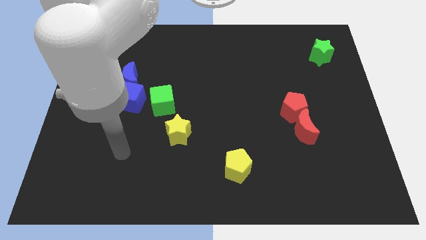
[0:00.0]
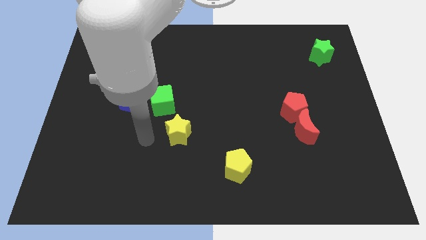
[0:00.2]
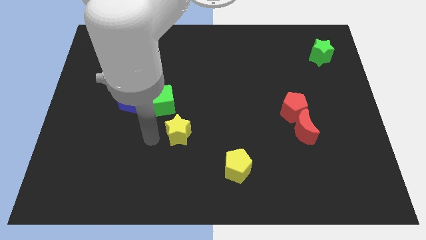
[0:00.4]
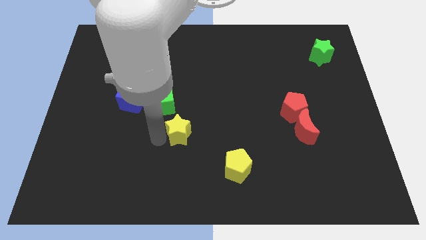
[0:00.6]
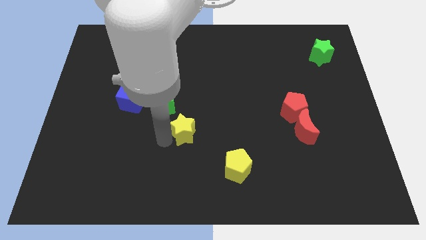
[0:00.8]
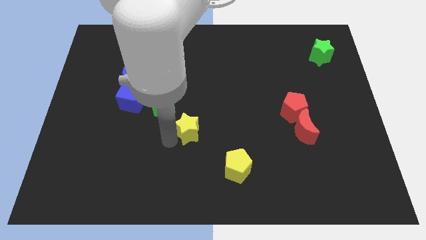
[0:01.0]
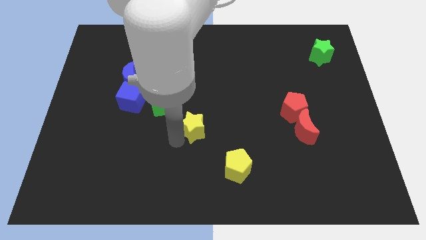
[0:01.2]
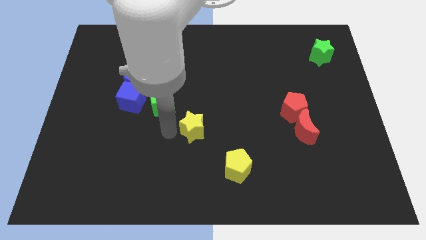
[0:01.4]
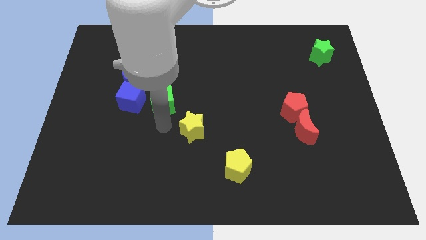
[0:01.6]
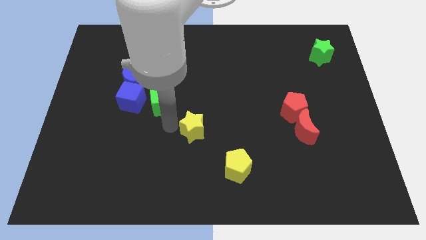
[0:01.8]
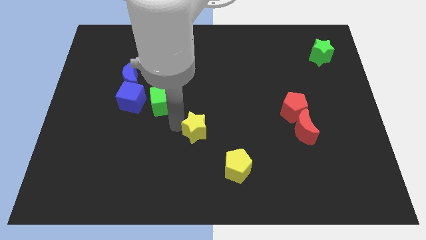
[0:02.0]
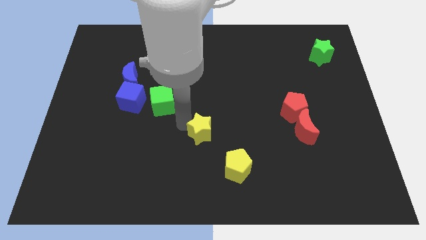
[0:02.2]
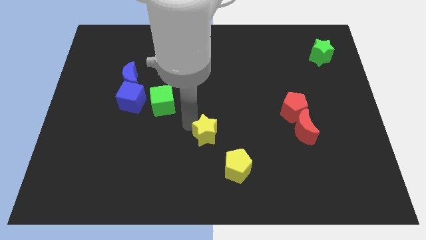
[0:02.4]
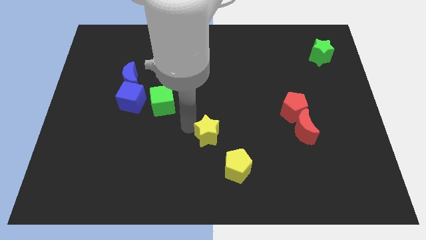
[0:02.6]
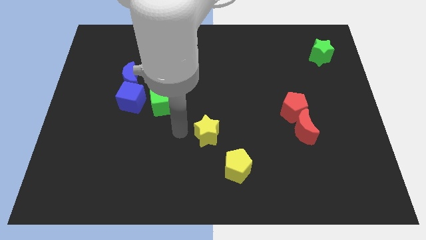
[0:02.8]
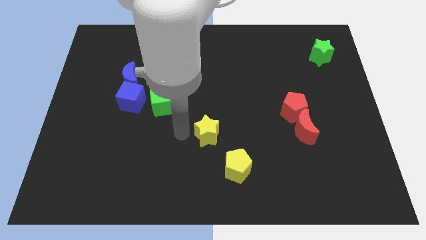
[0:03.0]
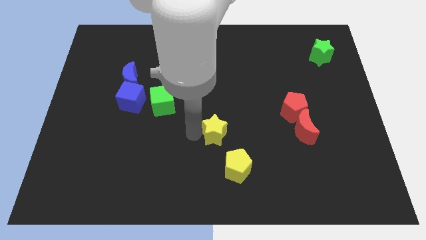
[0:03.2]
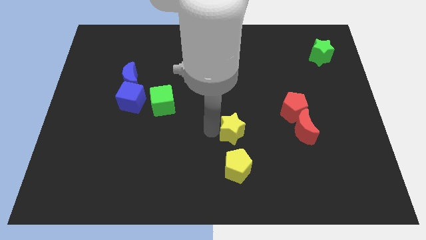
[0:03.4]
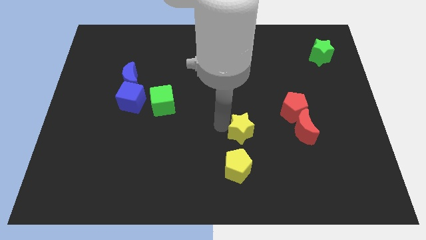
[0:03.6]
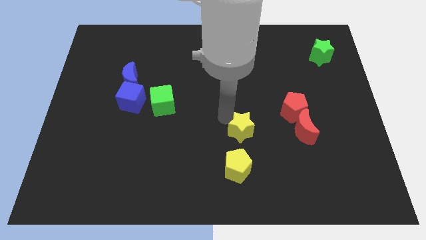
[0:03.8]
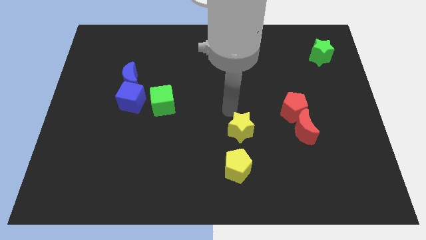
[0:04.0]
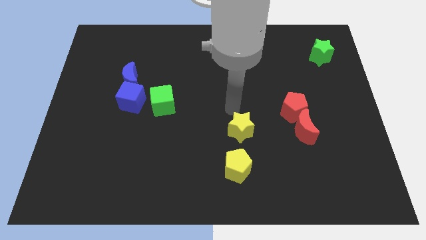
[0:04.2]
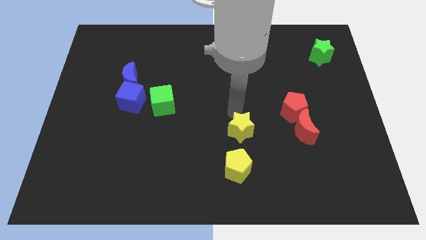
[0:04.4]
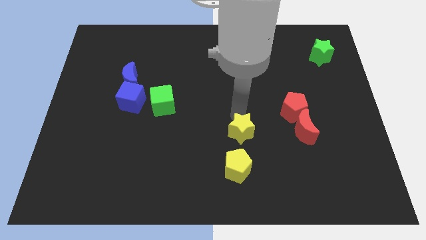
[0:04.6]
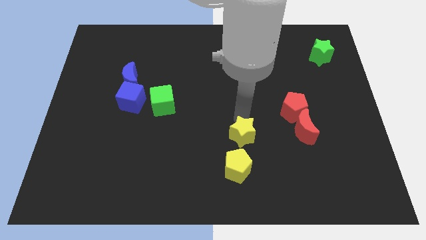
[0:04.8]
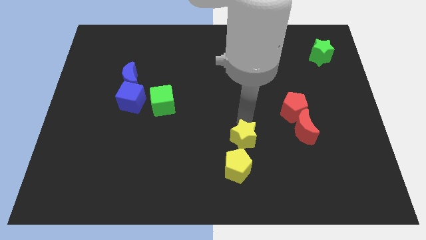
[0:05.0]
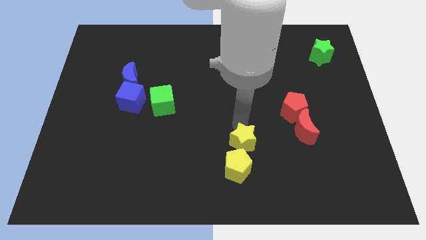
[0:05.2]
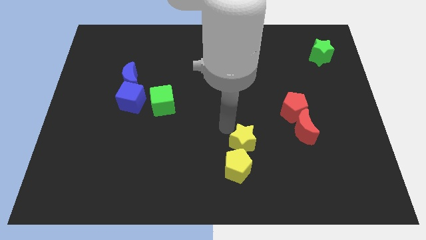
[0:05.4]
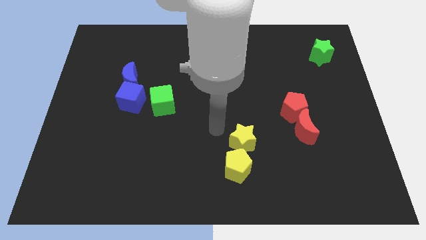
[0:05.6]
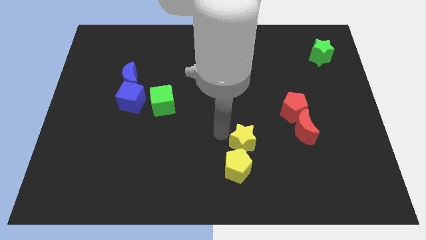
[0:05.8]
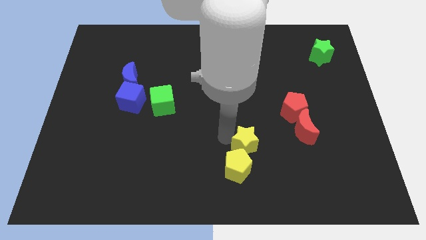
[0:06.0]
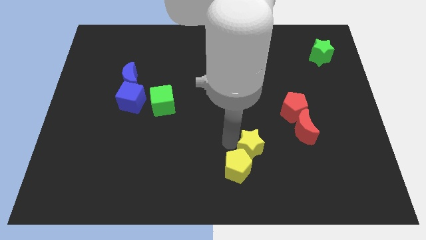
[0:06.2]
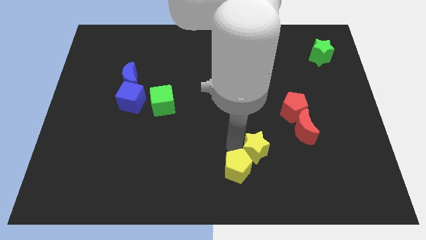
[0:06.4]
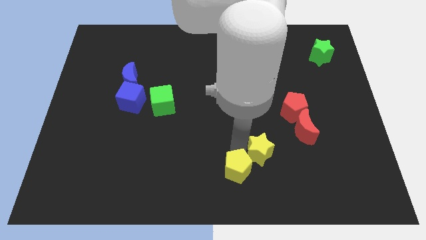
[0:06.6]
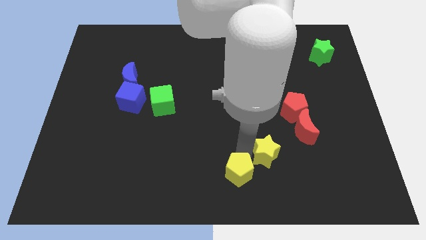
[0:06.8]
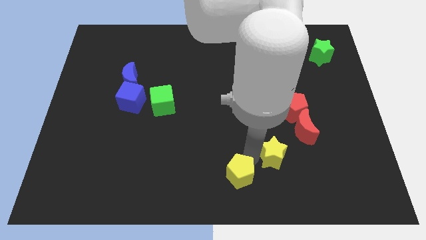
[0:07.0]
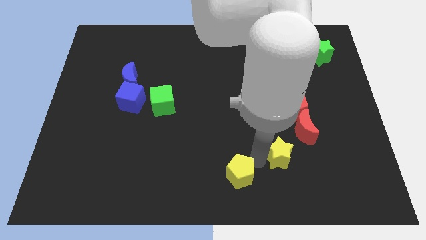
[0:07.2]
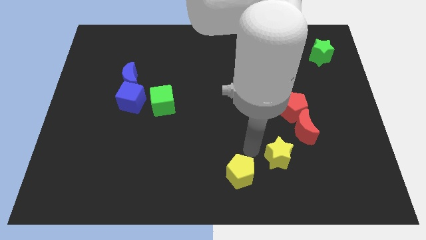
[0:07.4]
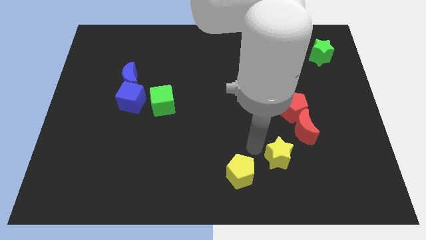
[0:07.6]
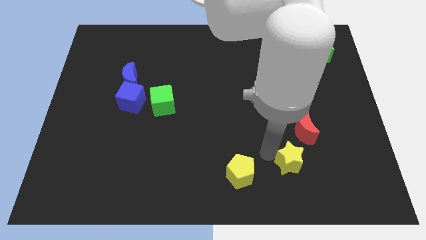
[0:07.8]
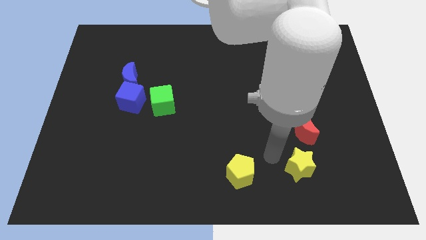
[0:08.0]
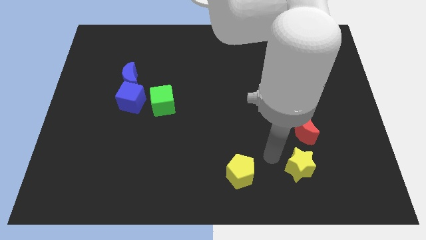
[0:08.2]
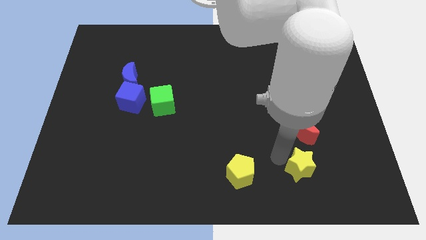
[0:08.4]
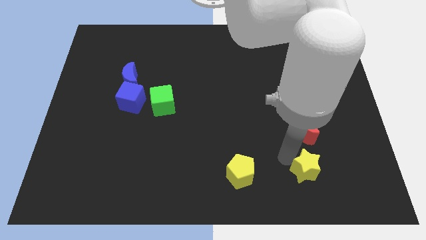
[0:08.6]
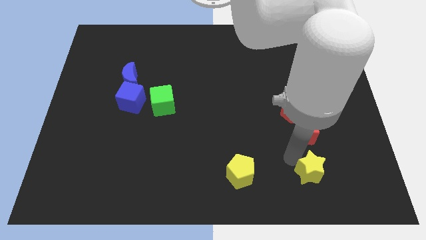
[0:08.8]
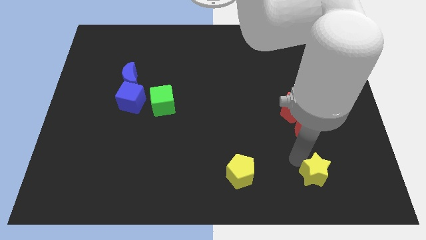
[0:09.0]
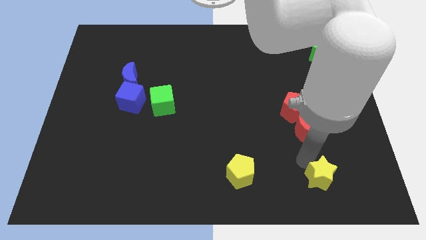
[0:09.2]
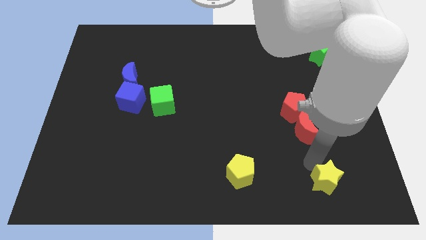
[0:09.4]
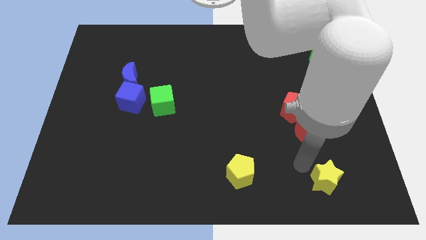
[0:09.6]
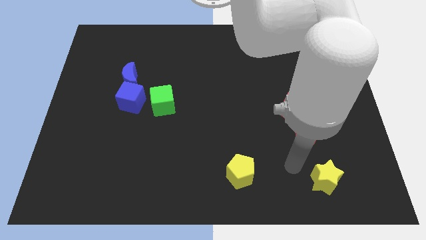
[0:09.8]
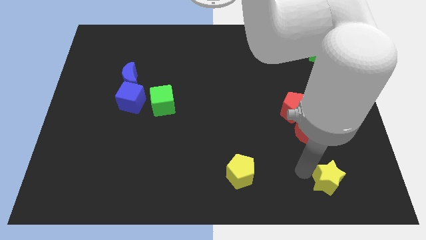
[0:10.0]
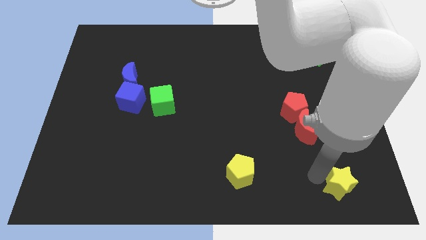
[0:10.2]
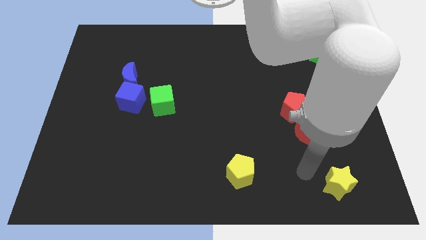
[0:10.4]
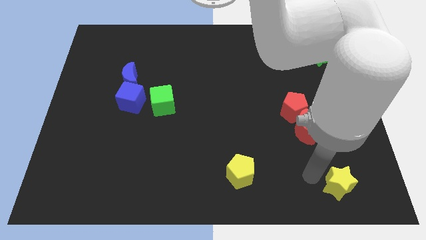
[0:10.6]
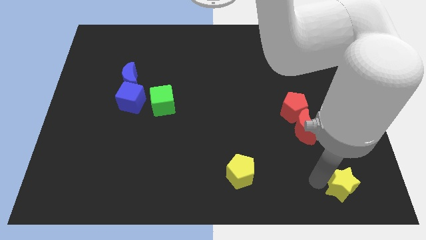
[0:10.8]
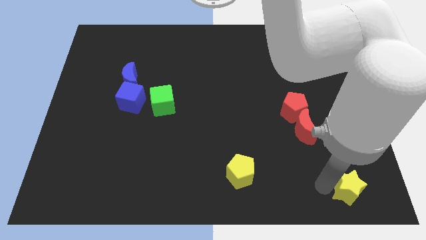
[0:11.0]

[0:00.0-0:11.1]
slide the yellow star to the bottom right

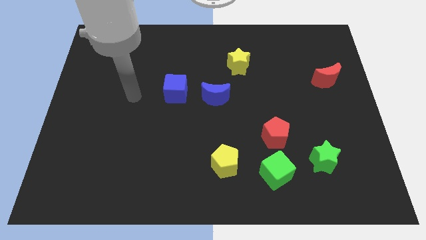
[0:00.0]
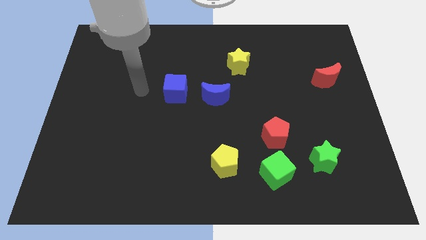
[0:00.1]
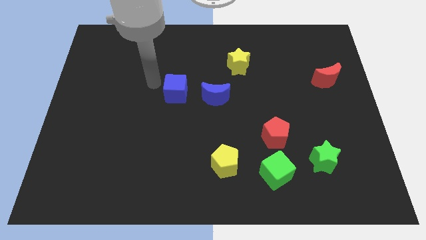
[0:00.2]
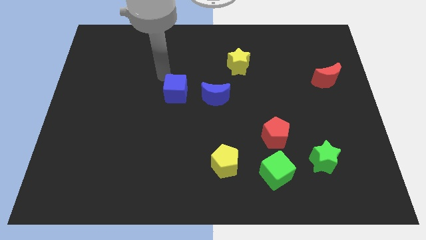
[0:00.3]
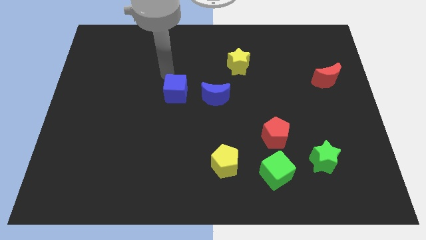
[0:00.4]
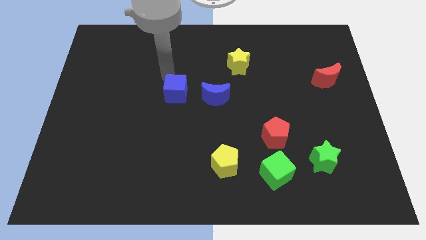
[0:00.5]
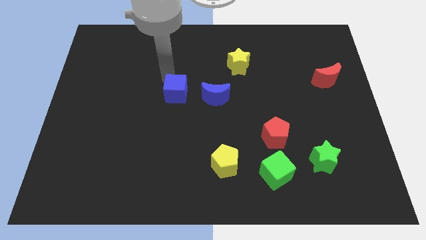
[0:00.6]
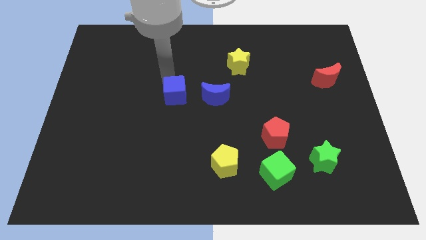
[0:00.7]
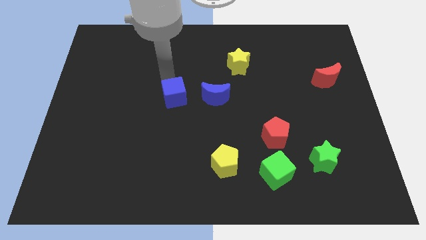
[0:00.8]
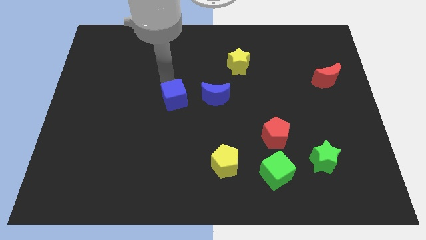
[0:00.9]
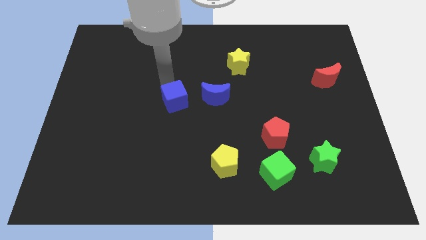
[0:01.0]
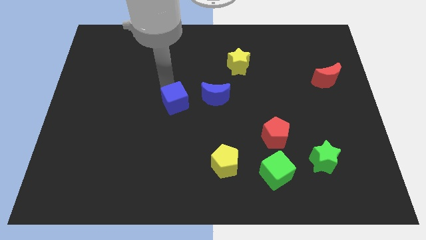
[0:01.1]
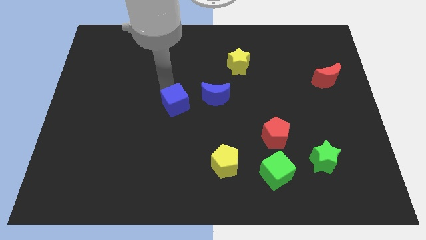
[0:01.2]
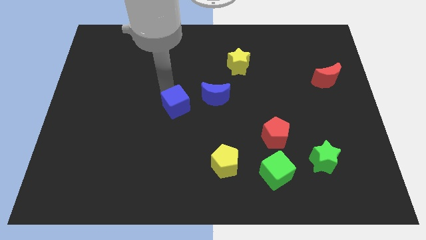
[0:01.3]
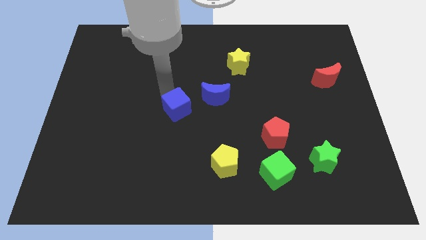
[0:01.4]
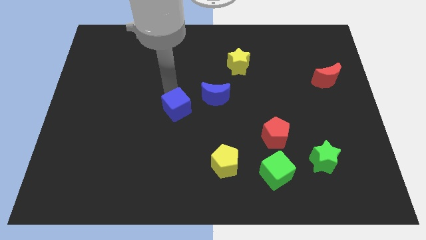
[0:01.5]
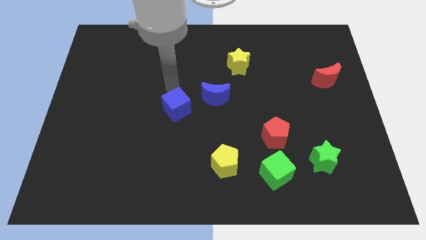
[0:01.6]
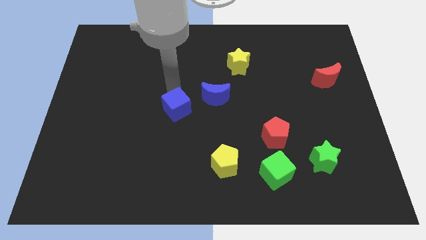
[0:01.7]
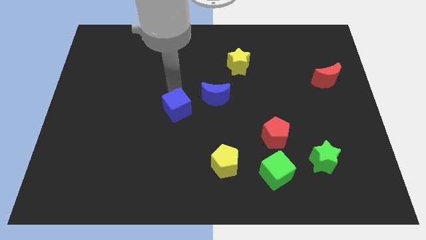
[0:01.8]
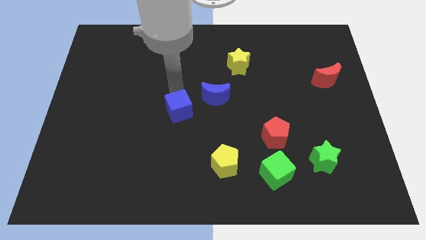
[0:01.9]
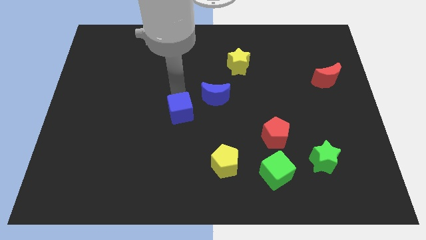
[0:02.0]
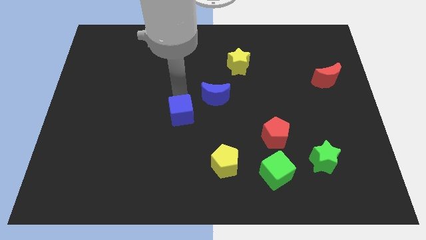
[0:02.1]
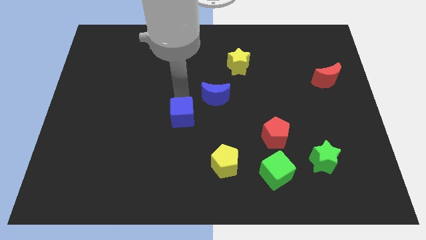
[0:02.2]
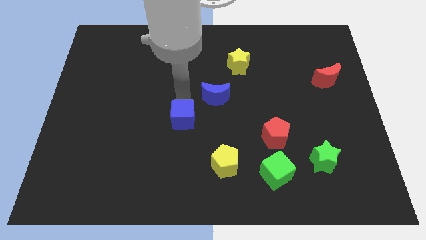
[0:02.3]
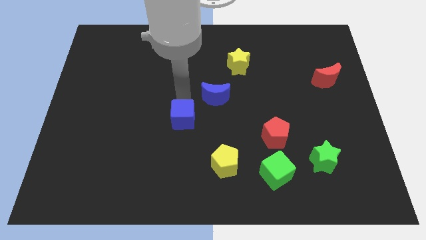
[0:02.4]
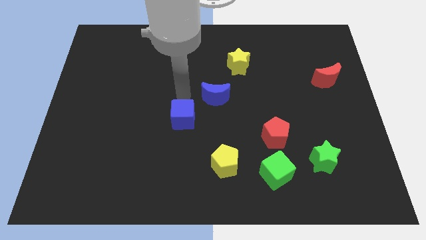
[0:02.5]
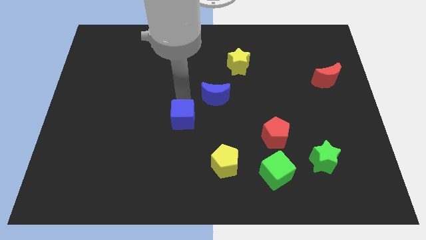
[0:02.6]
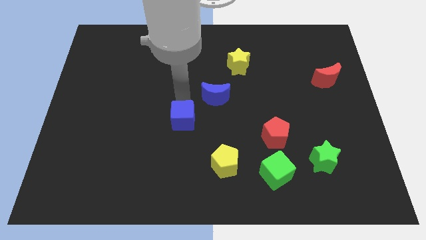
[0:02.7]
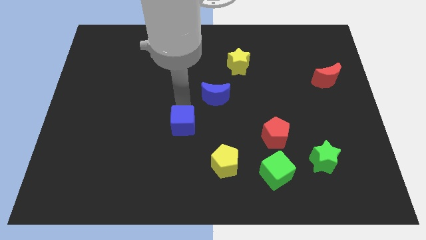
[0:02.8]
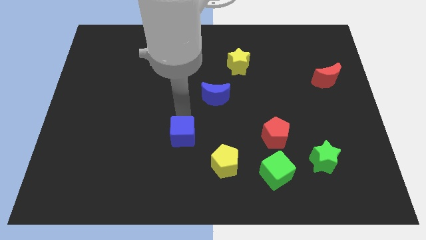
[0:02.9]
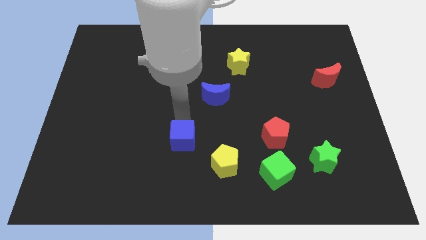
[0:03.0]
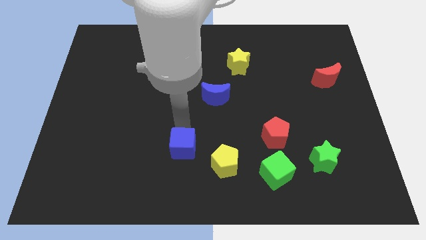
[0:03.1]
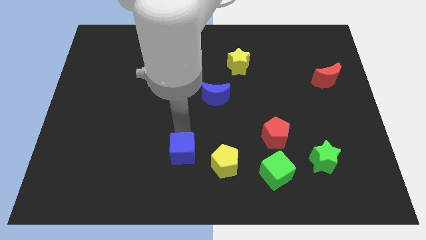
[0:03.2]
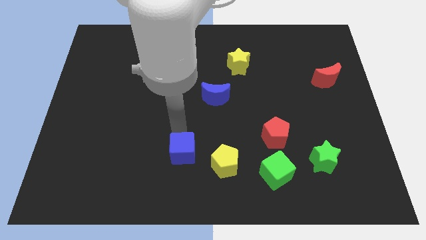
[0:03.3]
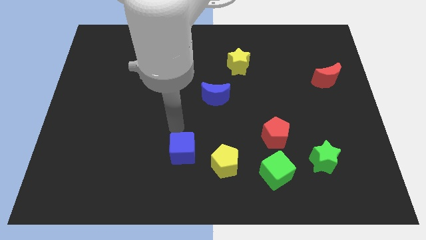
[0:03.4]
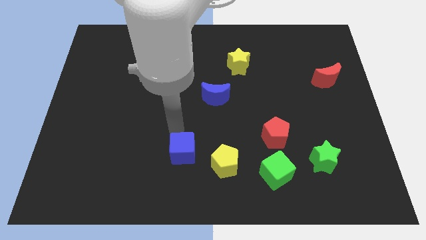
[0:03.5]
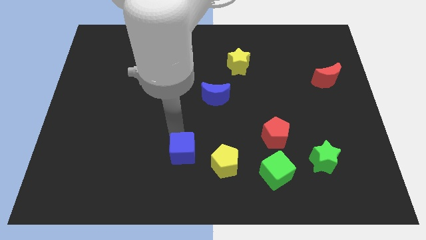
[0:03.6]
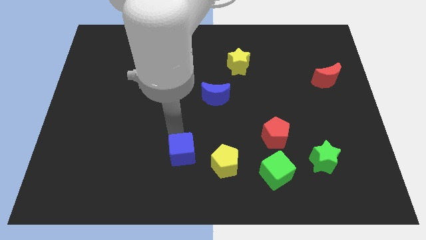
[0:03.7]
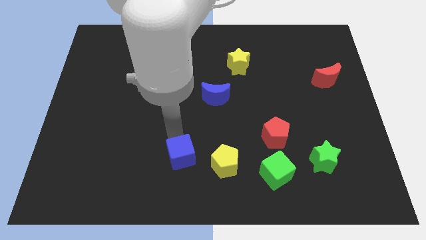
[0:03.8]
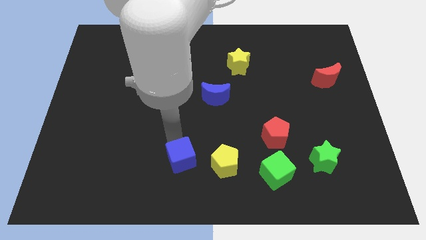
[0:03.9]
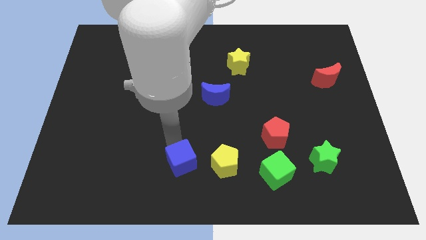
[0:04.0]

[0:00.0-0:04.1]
put the blue cube to the bottom side
